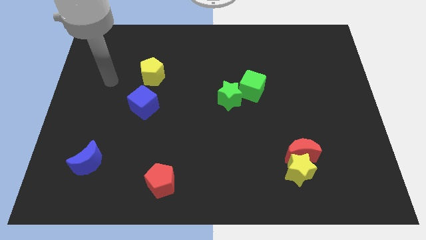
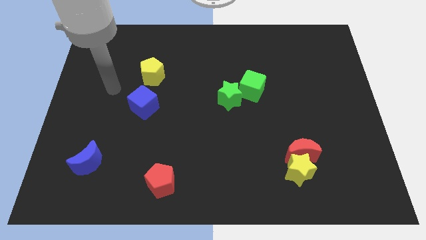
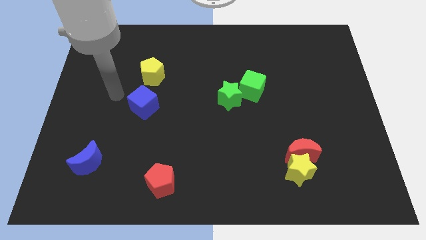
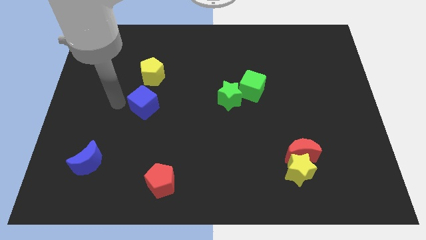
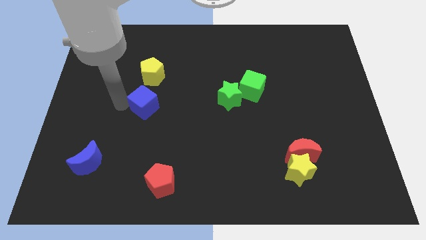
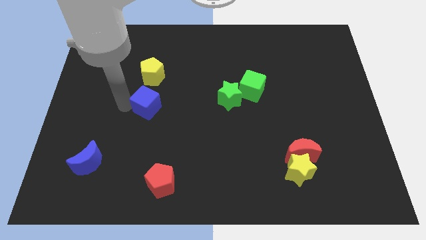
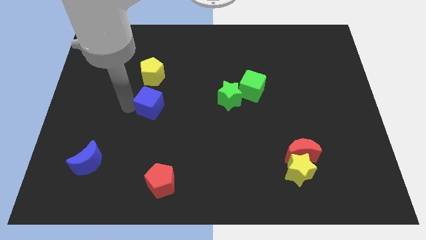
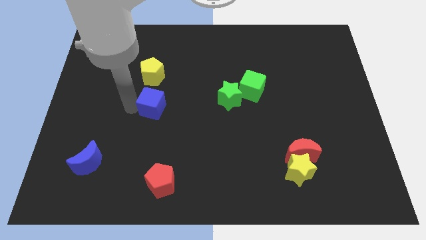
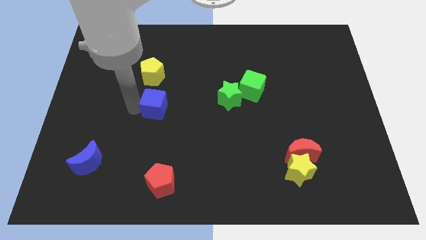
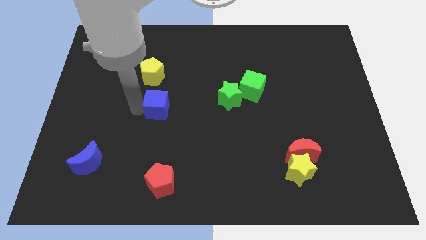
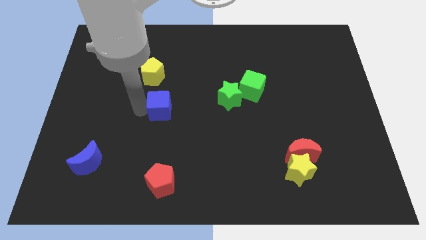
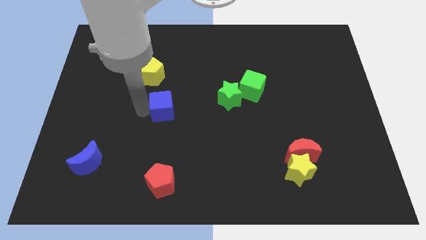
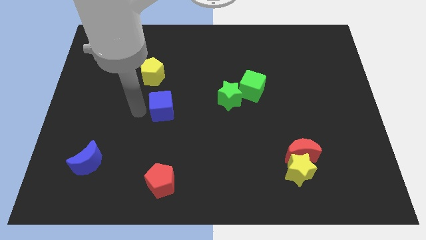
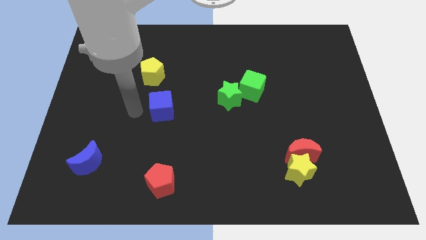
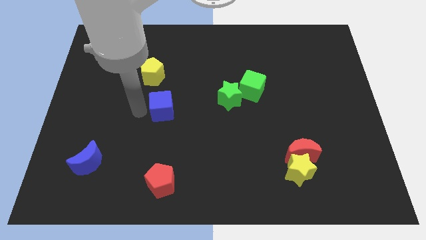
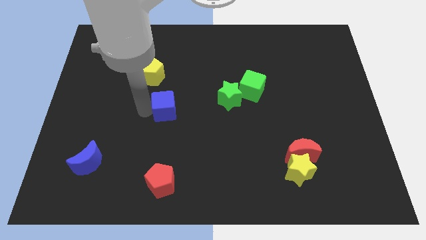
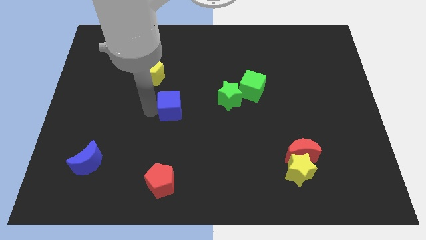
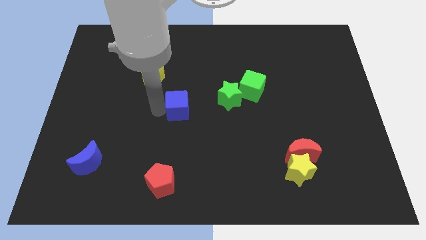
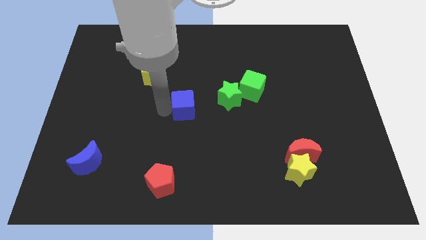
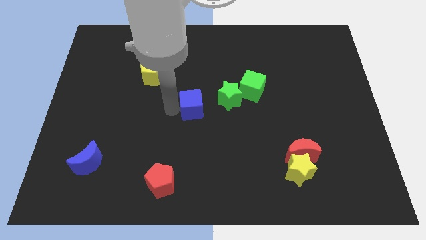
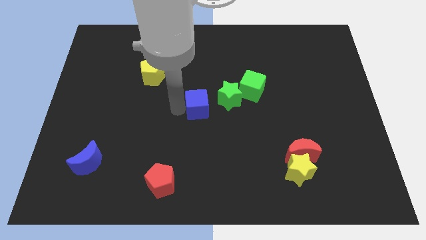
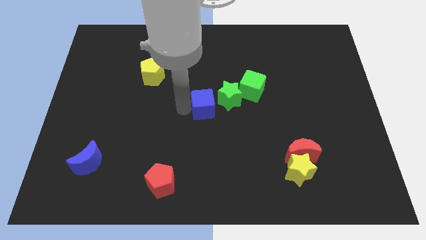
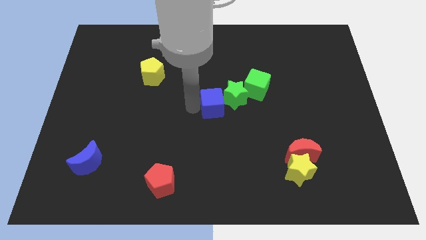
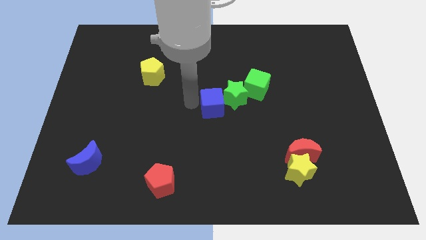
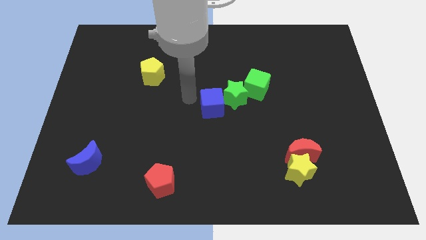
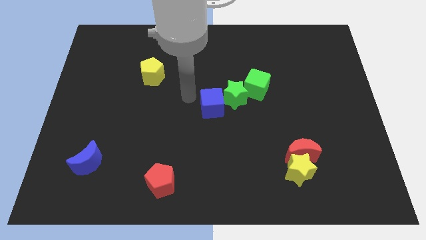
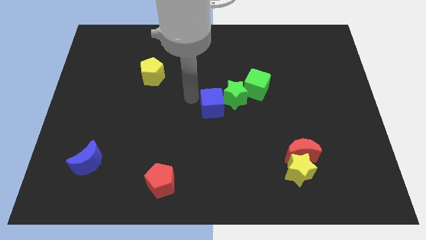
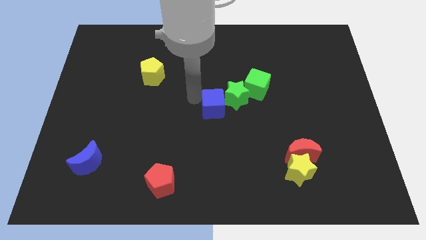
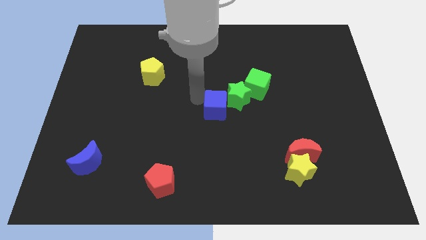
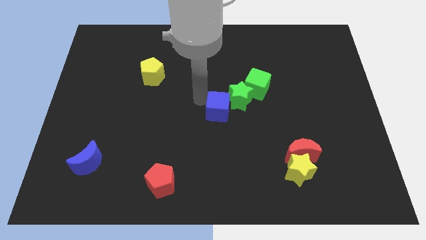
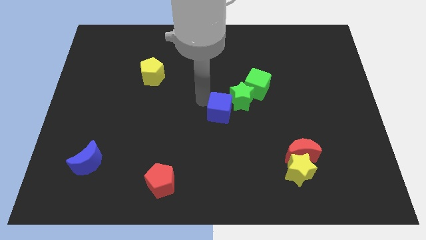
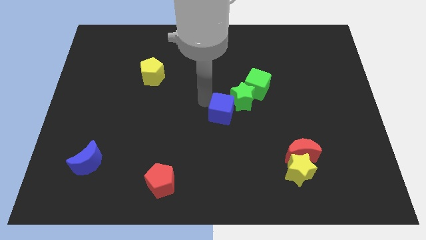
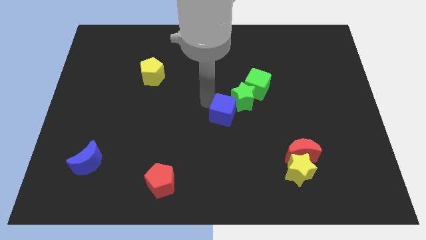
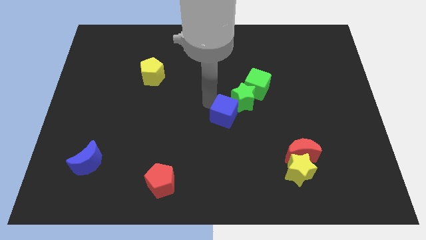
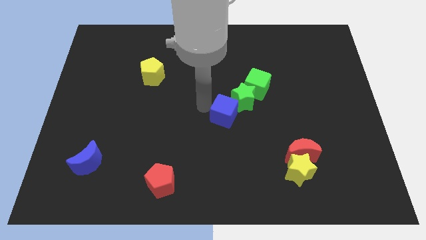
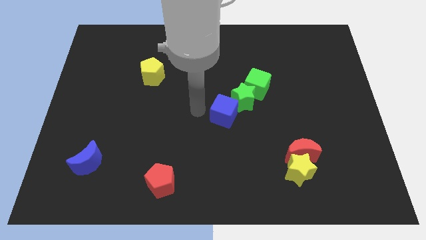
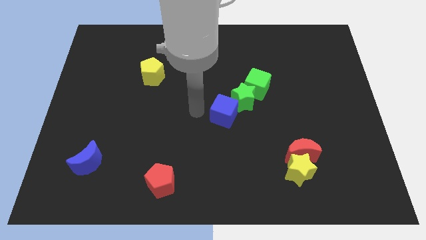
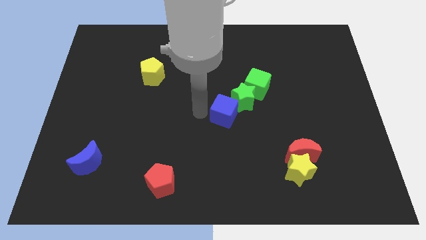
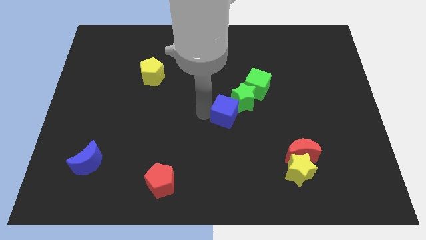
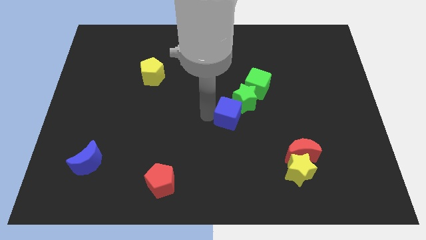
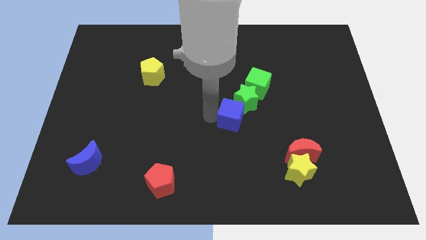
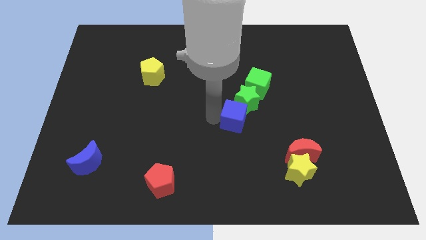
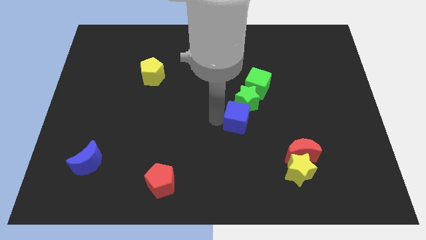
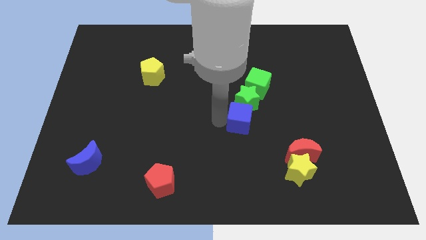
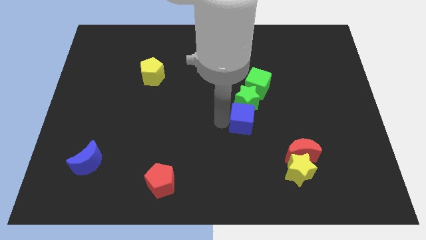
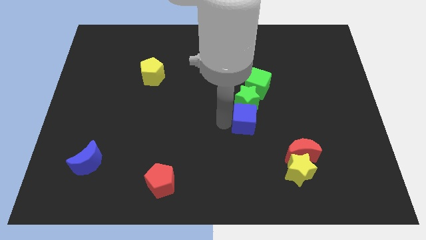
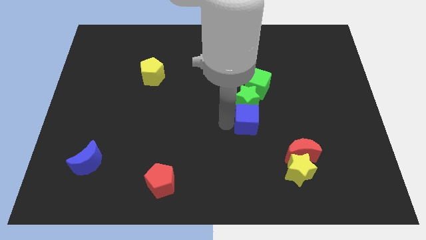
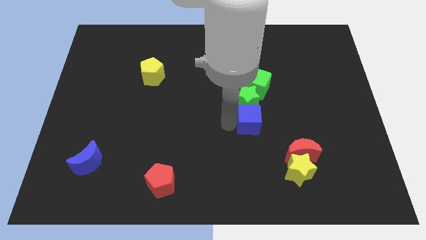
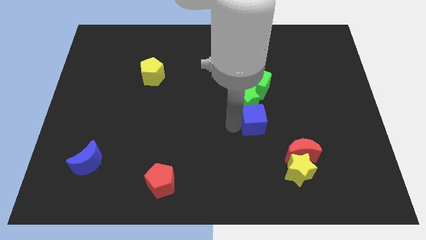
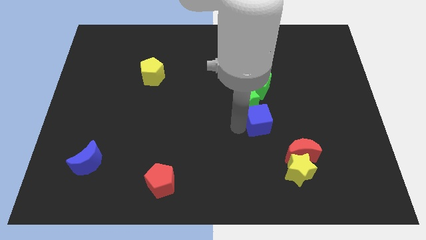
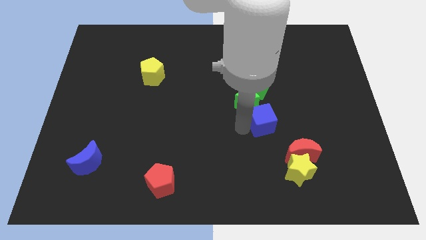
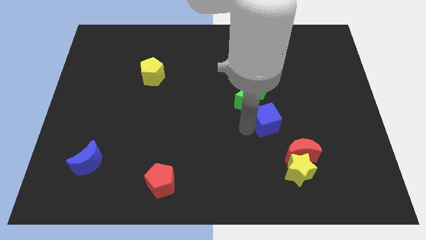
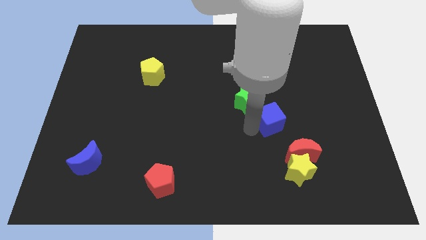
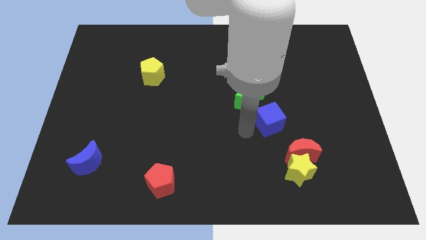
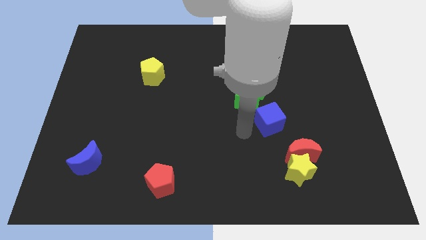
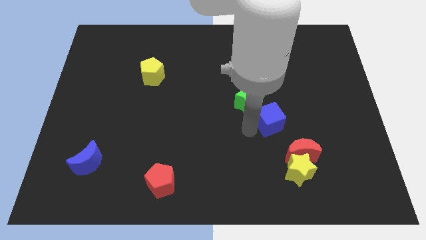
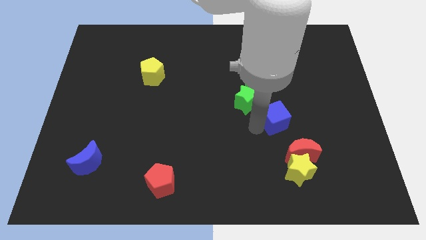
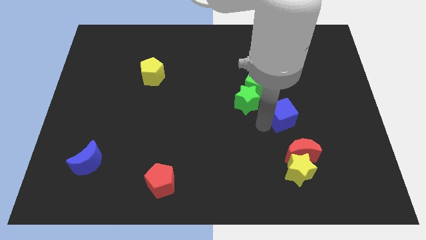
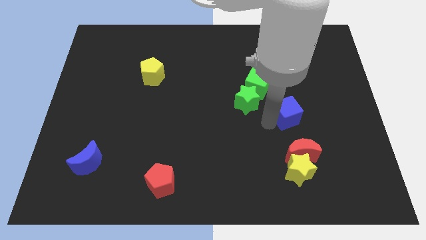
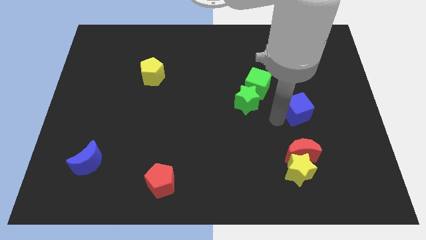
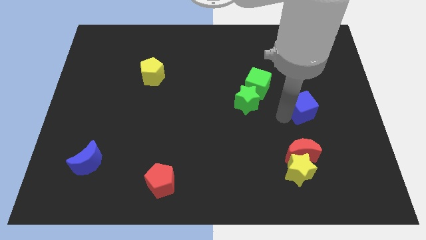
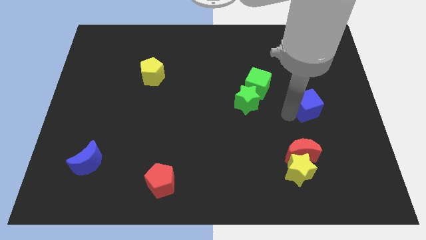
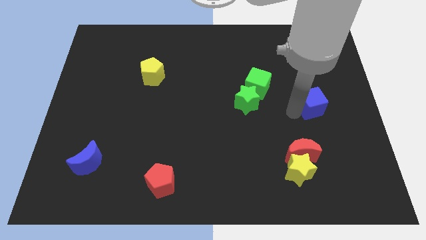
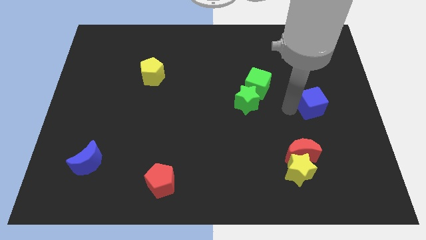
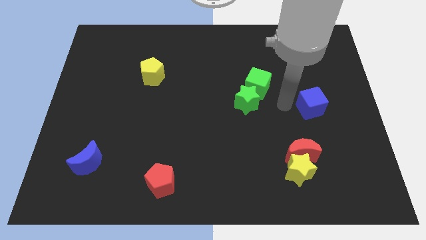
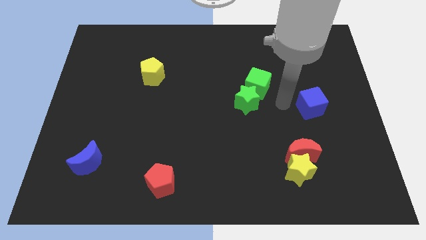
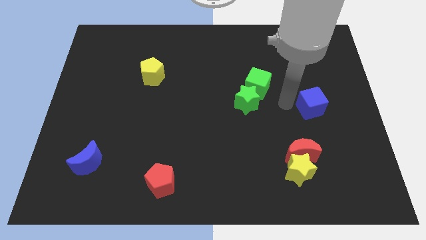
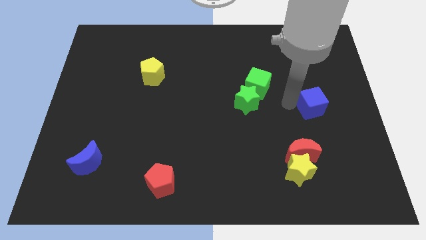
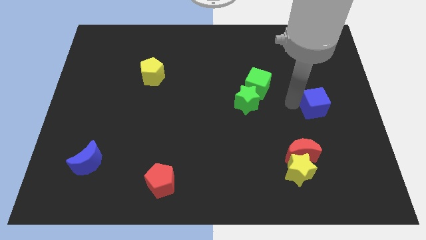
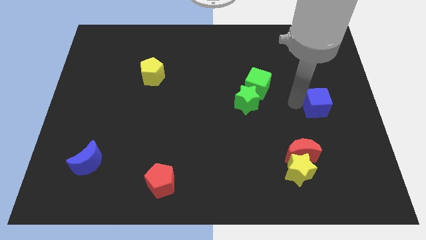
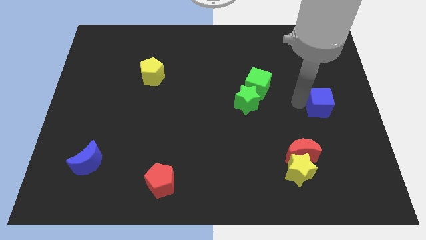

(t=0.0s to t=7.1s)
move the blue cube to the center right
